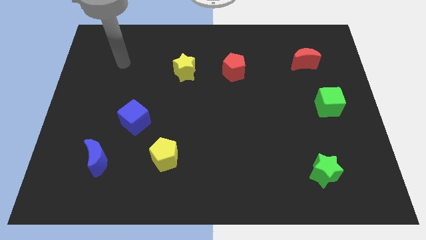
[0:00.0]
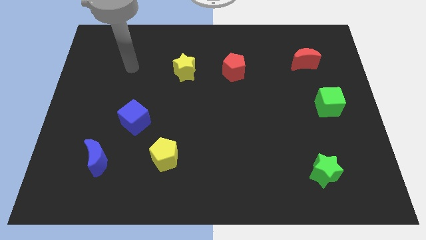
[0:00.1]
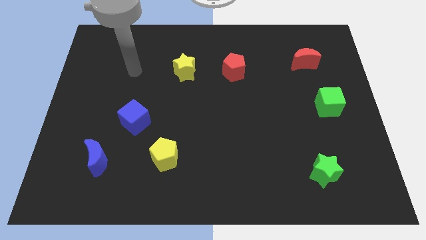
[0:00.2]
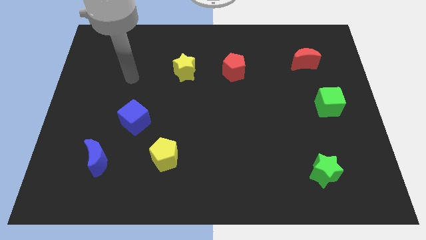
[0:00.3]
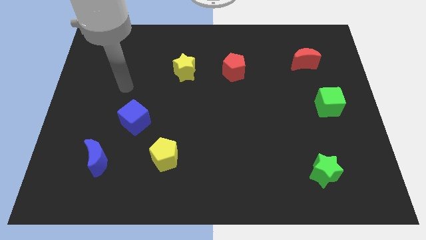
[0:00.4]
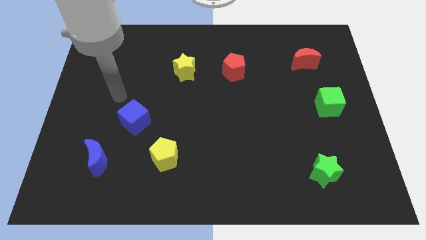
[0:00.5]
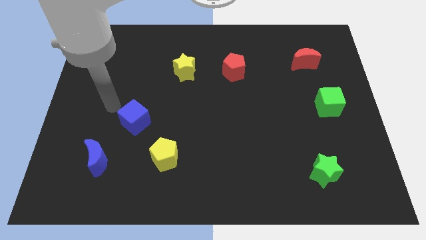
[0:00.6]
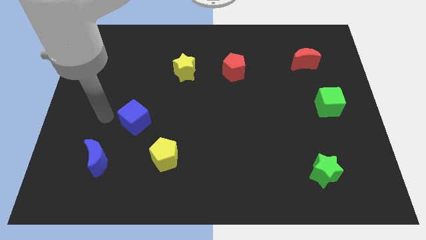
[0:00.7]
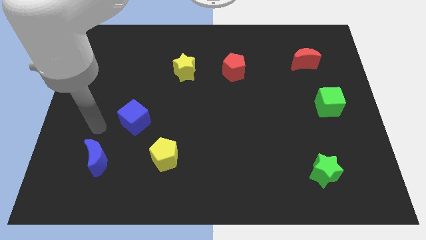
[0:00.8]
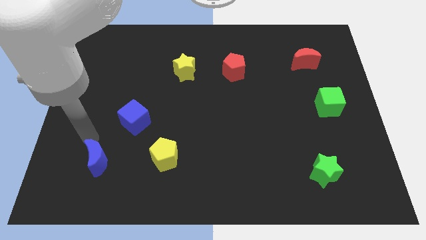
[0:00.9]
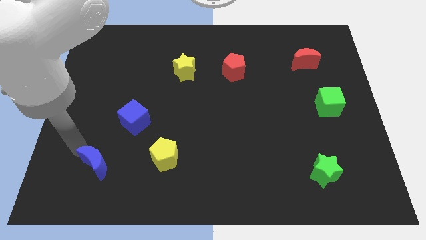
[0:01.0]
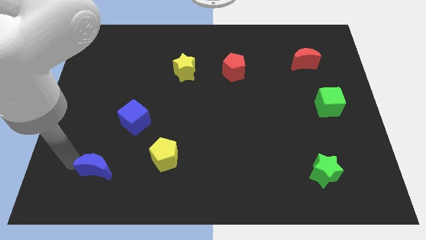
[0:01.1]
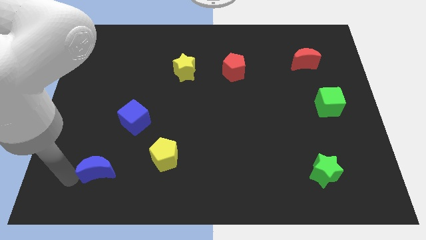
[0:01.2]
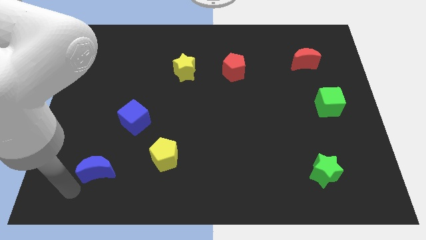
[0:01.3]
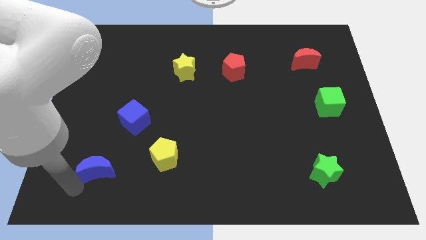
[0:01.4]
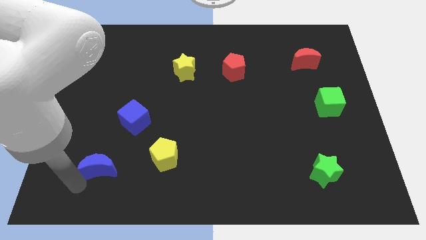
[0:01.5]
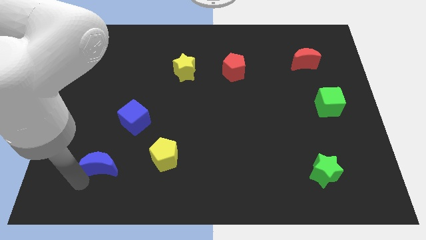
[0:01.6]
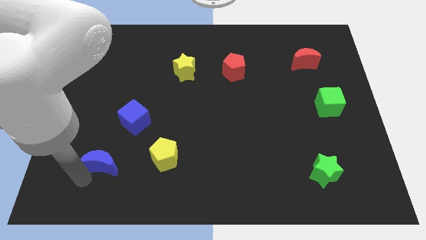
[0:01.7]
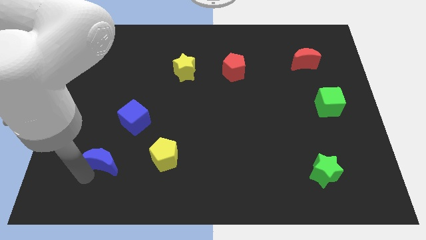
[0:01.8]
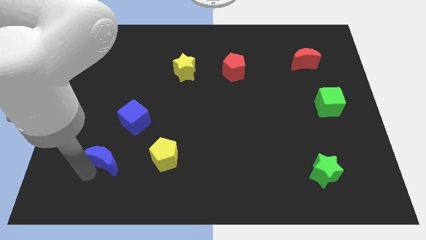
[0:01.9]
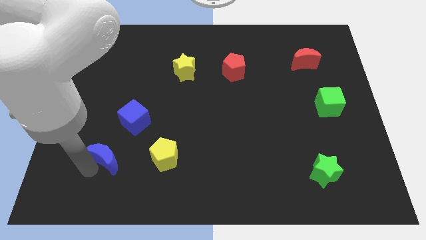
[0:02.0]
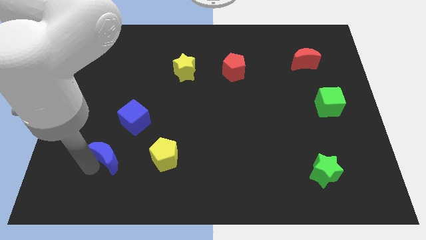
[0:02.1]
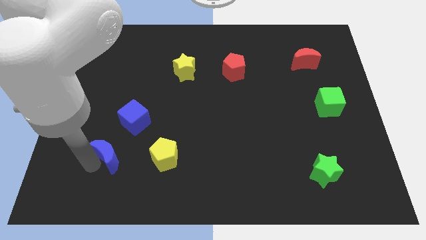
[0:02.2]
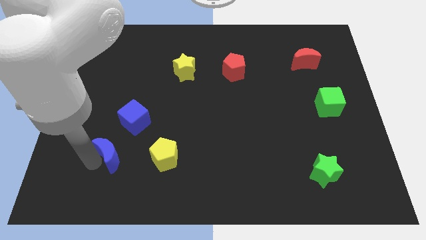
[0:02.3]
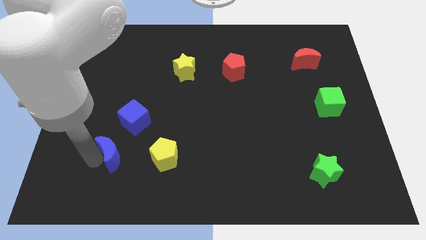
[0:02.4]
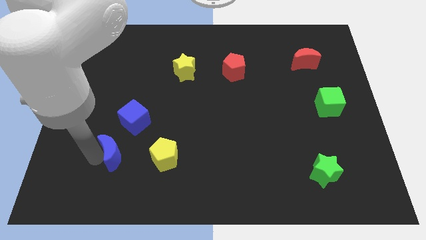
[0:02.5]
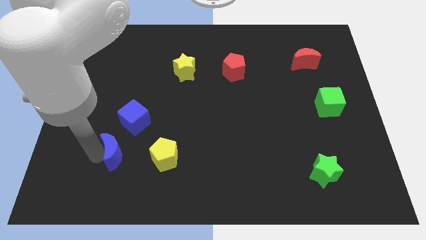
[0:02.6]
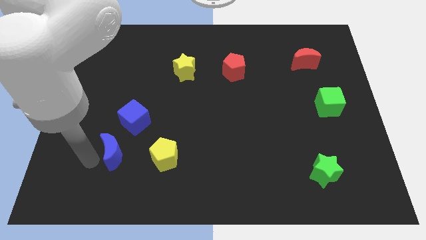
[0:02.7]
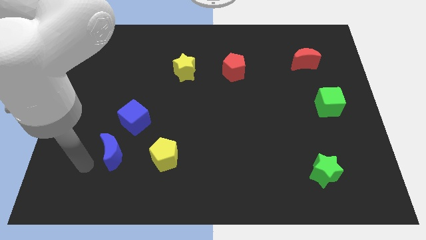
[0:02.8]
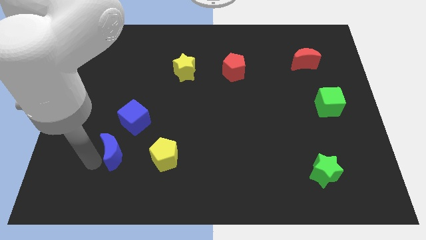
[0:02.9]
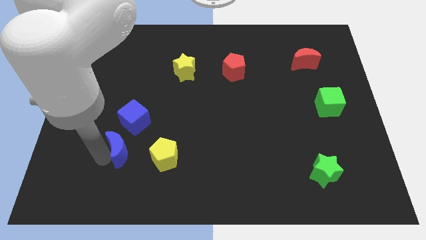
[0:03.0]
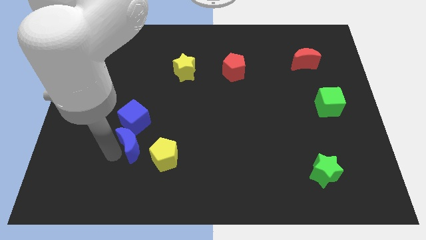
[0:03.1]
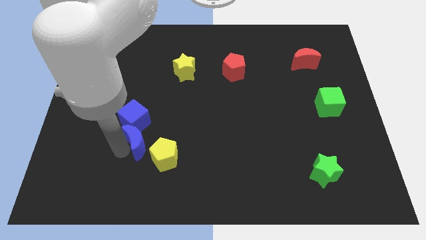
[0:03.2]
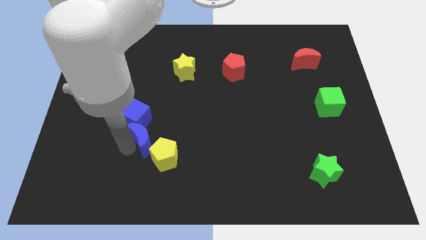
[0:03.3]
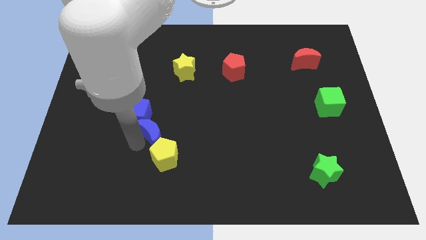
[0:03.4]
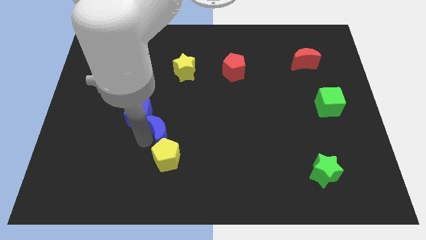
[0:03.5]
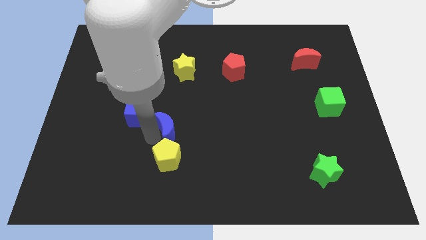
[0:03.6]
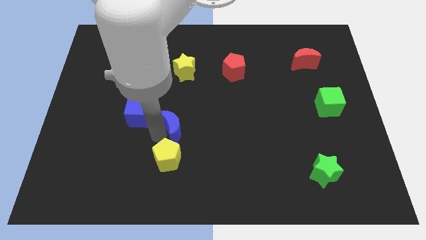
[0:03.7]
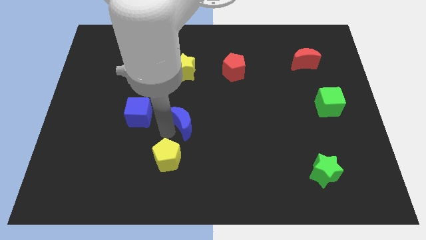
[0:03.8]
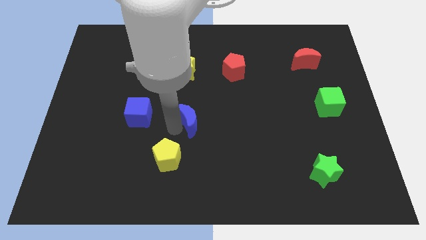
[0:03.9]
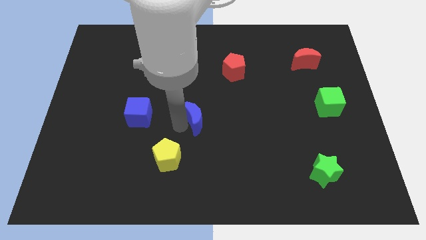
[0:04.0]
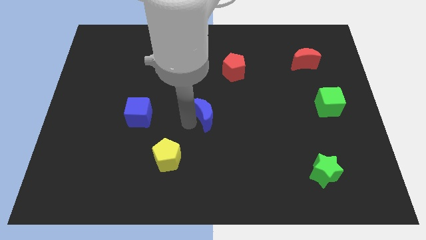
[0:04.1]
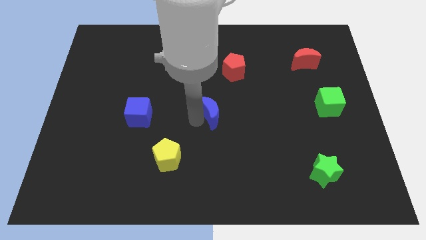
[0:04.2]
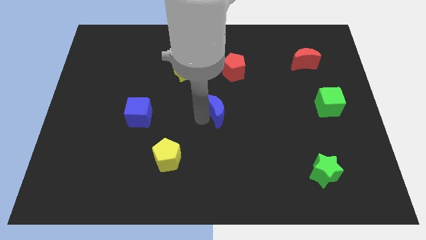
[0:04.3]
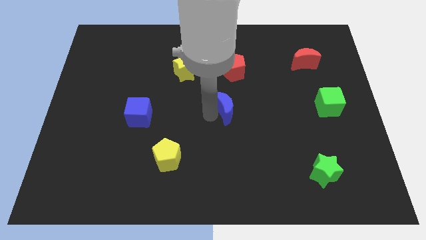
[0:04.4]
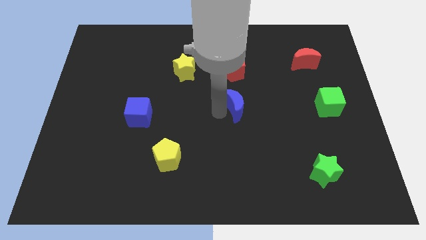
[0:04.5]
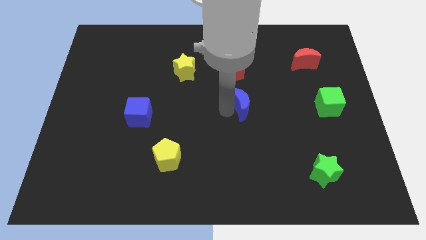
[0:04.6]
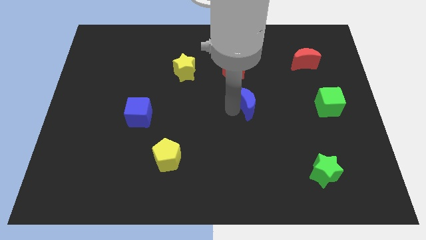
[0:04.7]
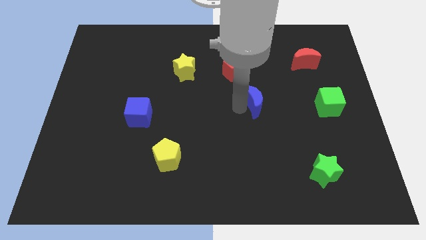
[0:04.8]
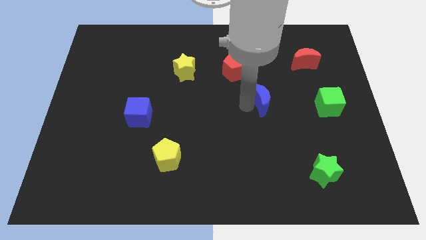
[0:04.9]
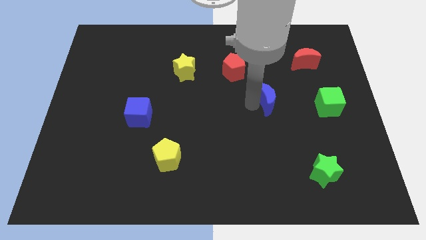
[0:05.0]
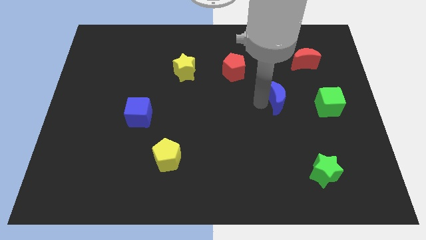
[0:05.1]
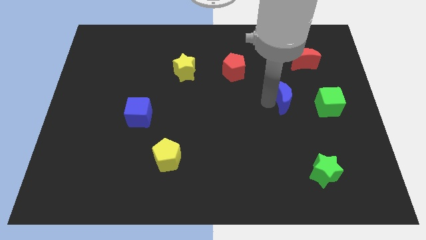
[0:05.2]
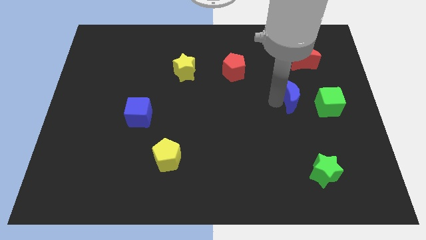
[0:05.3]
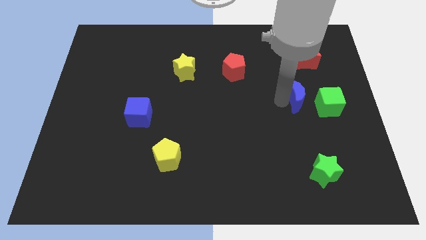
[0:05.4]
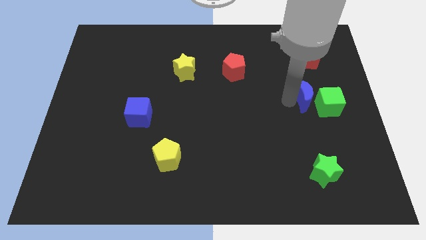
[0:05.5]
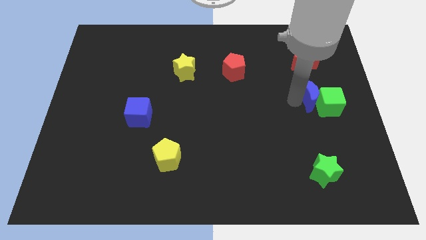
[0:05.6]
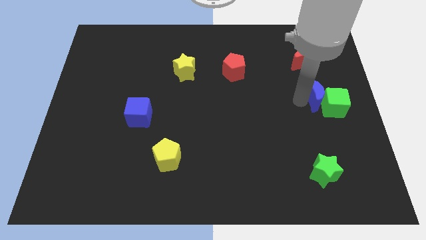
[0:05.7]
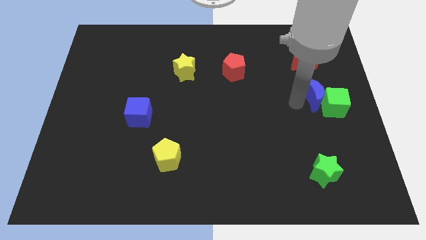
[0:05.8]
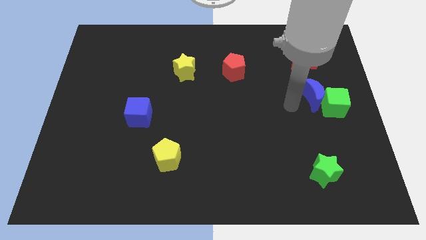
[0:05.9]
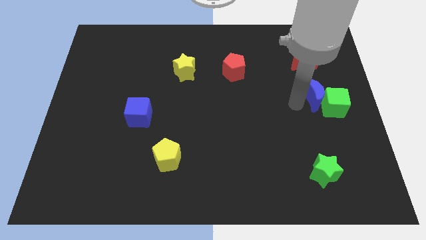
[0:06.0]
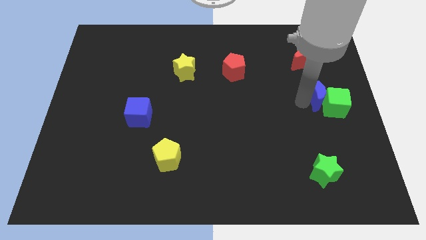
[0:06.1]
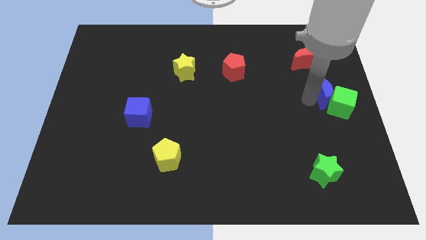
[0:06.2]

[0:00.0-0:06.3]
move the blue moon to the center right

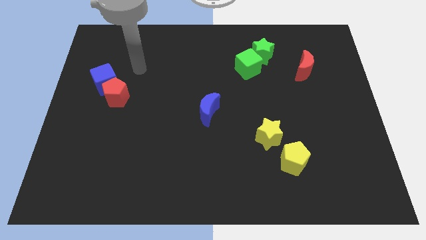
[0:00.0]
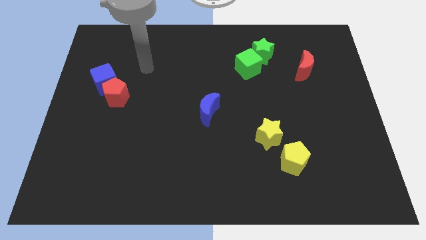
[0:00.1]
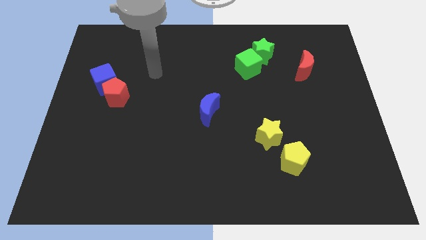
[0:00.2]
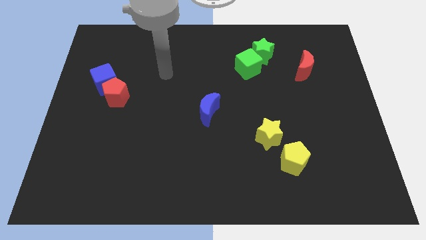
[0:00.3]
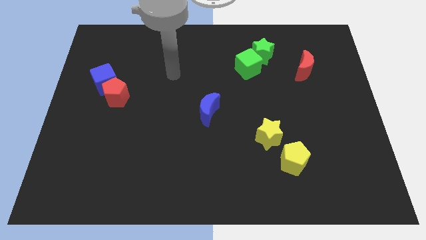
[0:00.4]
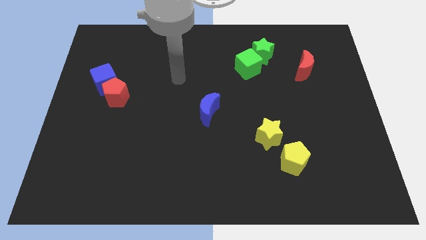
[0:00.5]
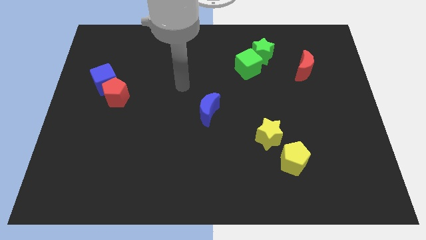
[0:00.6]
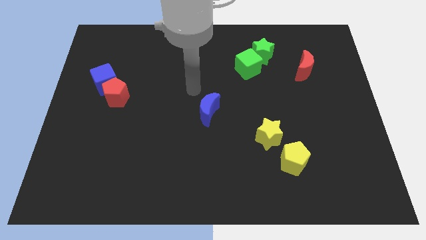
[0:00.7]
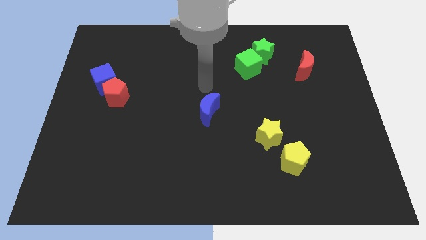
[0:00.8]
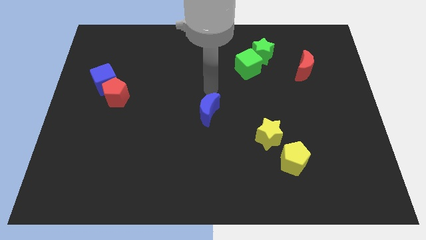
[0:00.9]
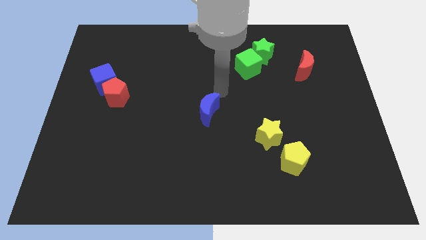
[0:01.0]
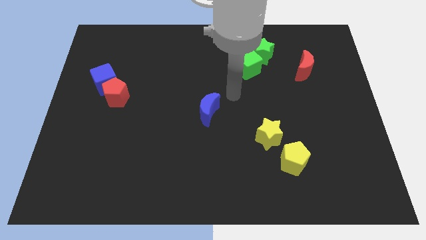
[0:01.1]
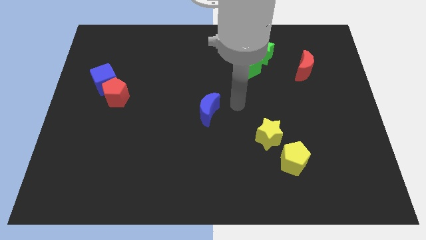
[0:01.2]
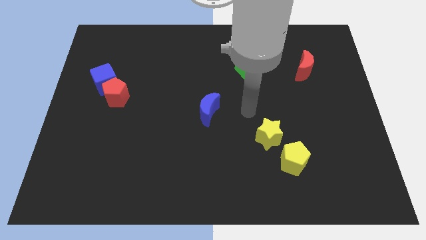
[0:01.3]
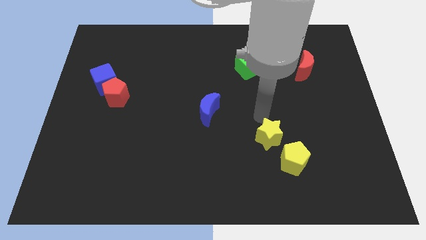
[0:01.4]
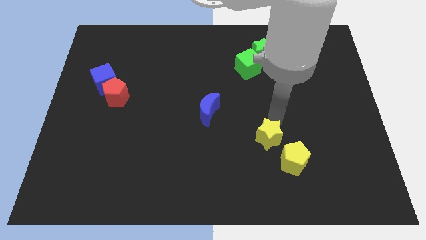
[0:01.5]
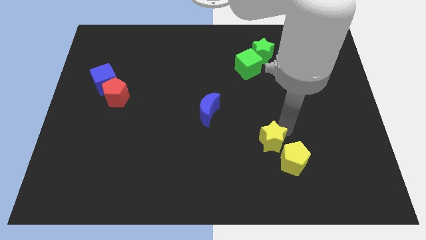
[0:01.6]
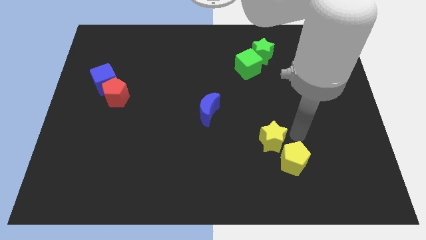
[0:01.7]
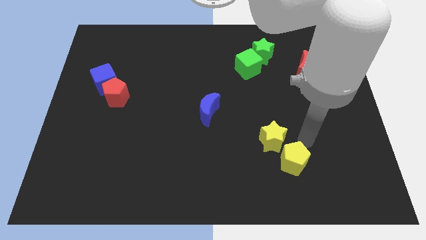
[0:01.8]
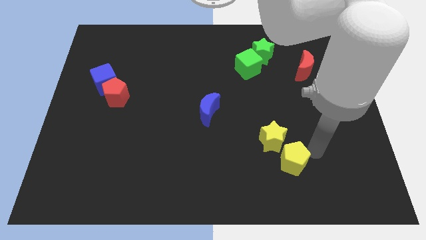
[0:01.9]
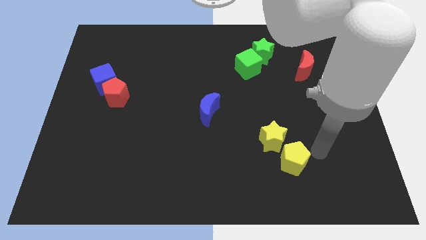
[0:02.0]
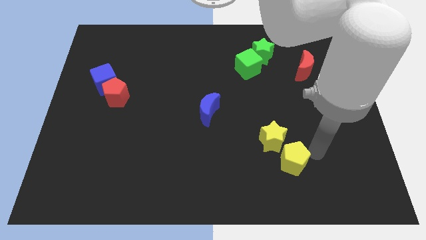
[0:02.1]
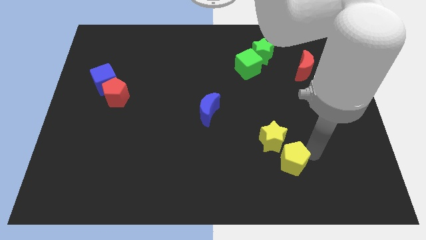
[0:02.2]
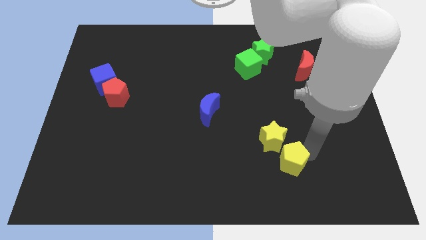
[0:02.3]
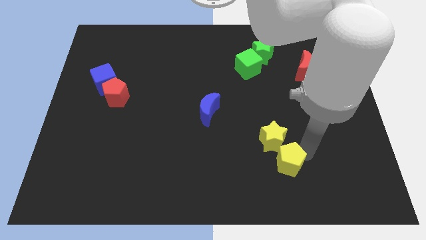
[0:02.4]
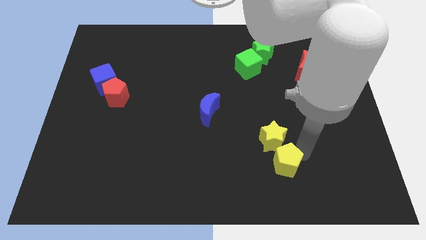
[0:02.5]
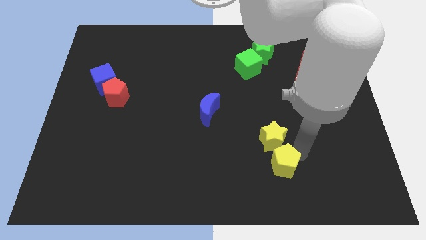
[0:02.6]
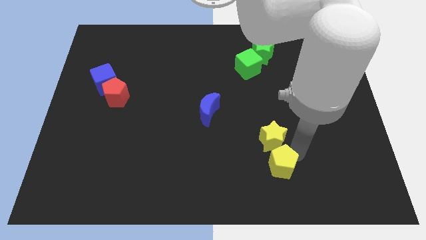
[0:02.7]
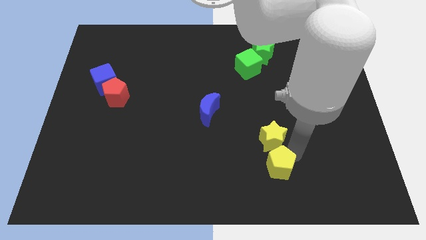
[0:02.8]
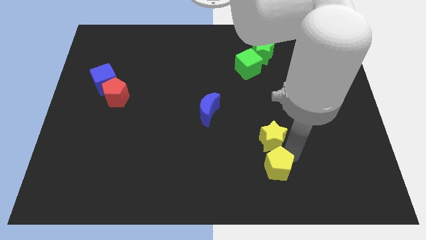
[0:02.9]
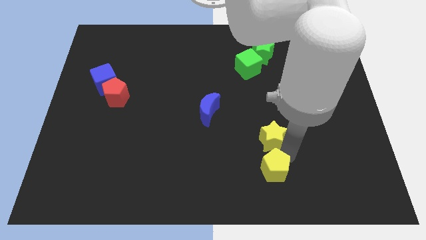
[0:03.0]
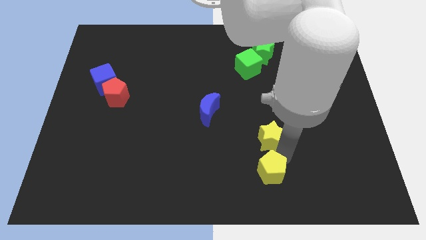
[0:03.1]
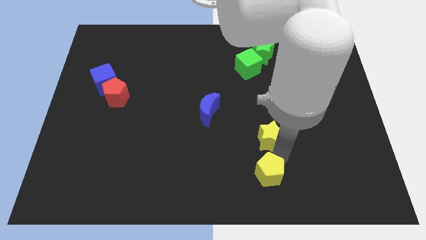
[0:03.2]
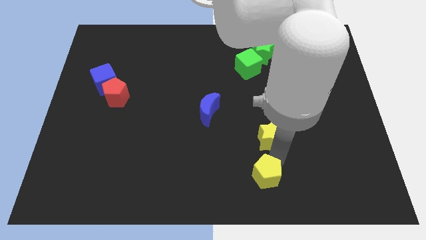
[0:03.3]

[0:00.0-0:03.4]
slide the yellow pentagon to the bottom side
